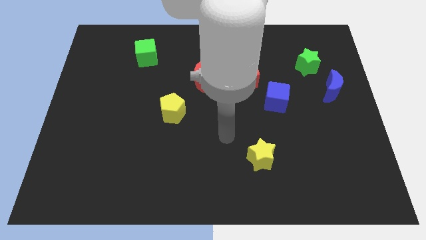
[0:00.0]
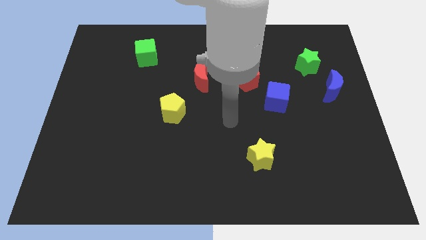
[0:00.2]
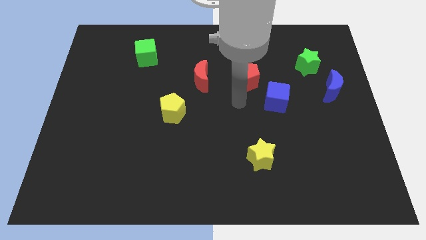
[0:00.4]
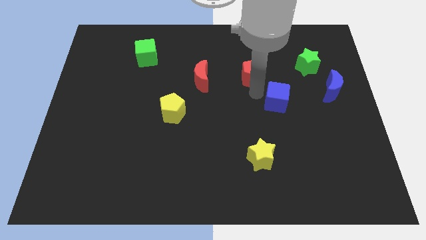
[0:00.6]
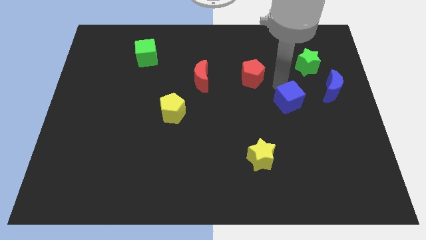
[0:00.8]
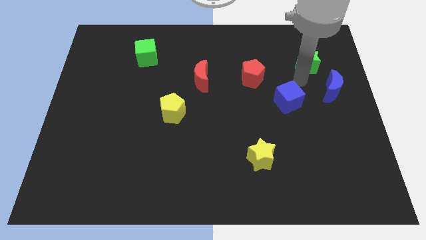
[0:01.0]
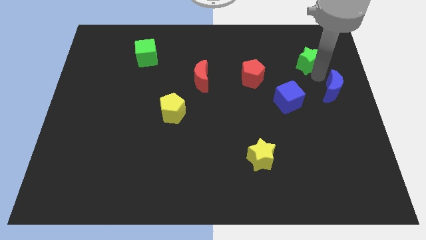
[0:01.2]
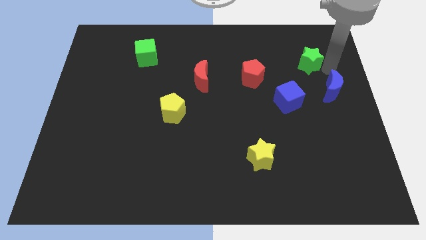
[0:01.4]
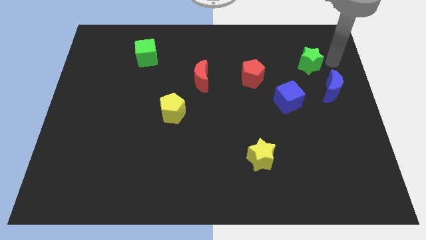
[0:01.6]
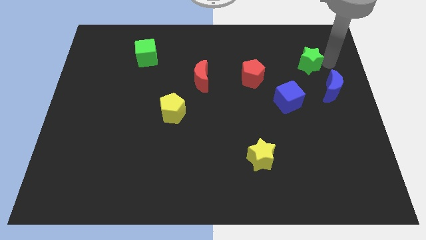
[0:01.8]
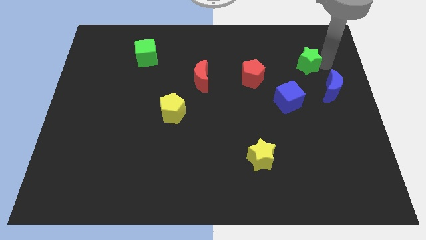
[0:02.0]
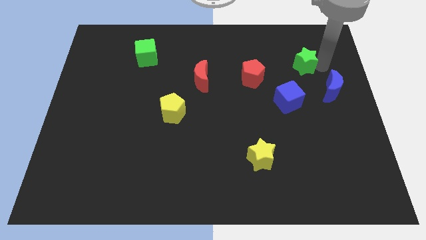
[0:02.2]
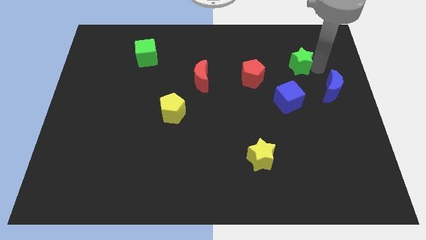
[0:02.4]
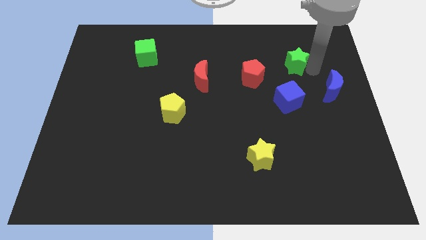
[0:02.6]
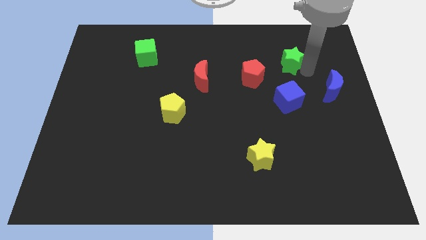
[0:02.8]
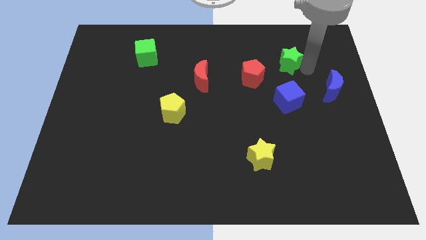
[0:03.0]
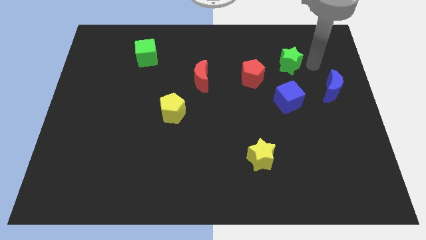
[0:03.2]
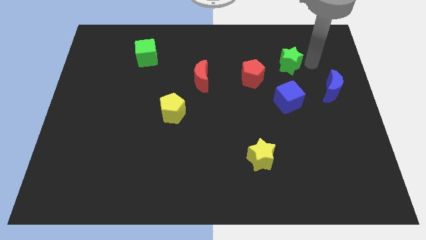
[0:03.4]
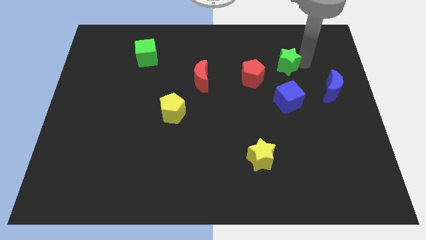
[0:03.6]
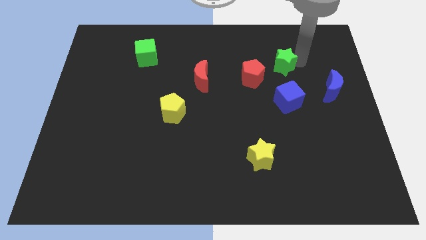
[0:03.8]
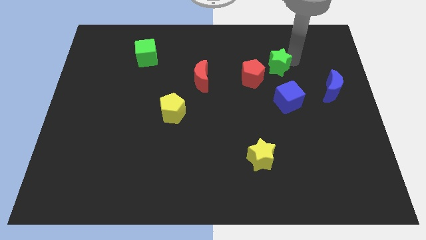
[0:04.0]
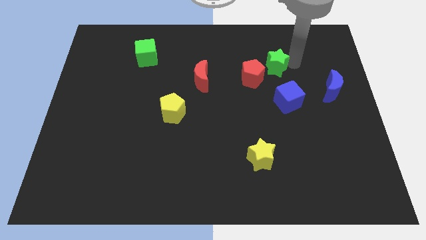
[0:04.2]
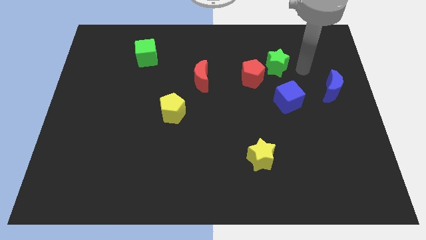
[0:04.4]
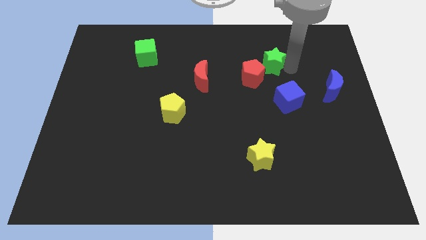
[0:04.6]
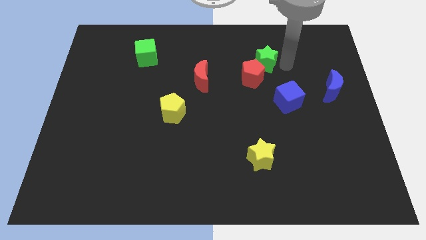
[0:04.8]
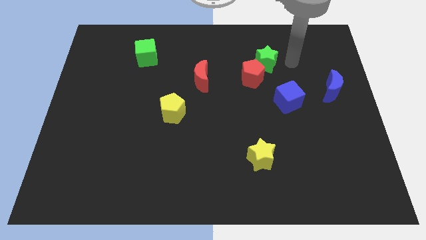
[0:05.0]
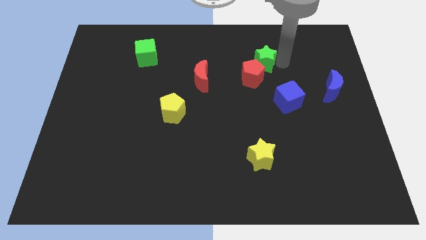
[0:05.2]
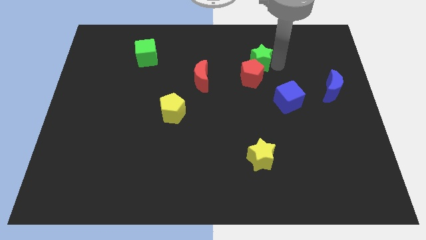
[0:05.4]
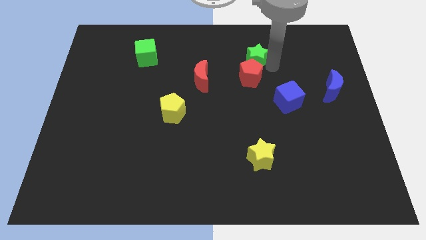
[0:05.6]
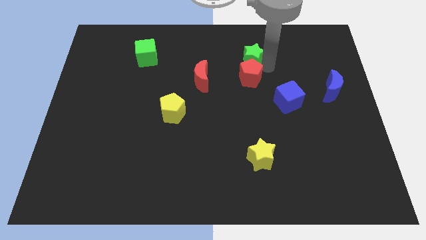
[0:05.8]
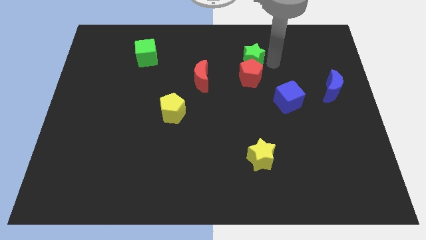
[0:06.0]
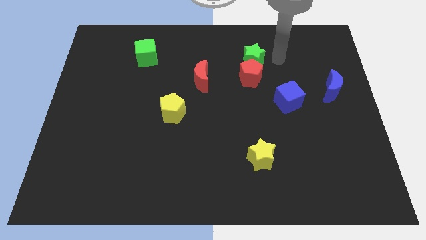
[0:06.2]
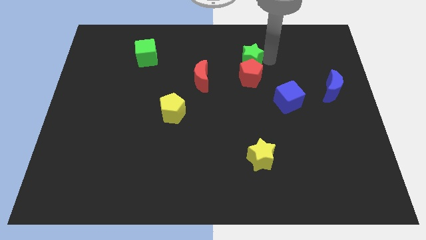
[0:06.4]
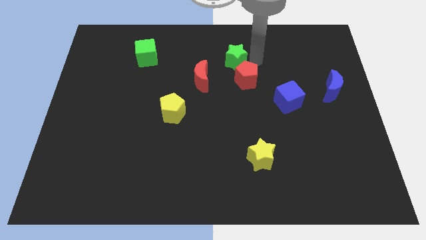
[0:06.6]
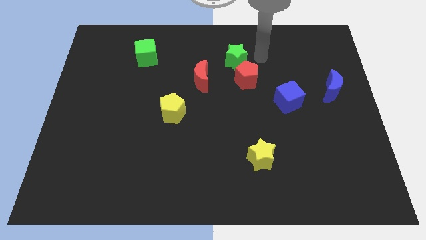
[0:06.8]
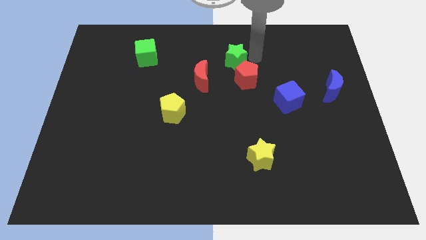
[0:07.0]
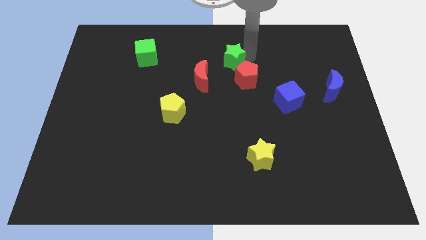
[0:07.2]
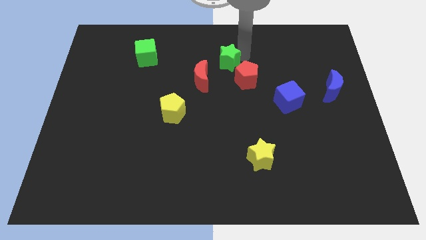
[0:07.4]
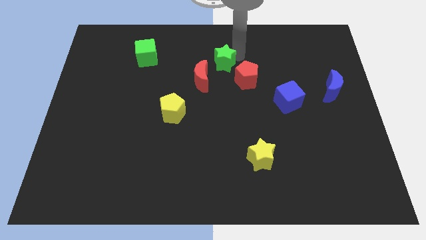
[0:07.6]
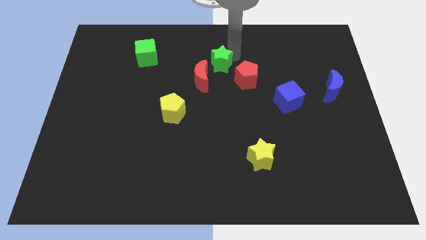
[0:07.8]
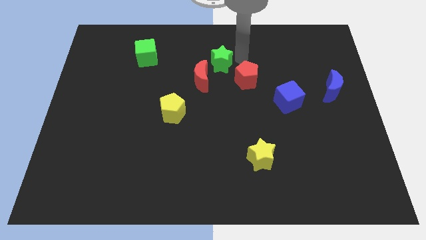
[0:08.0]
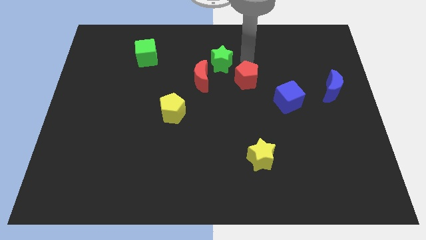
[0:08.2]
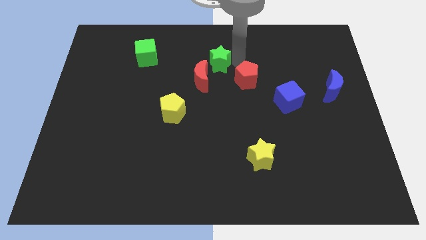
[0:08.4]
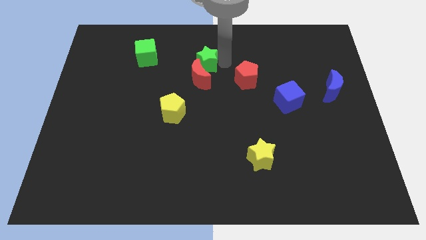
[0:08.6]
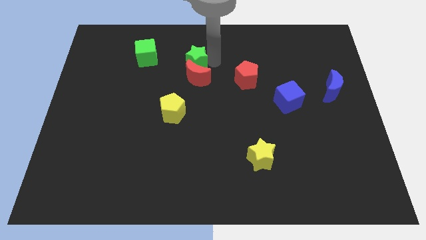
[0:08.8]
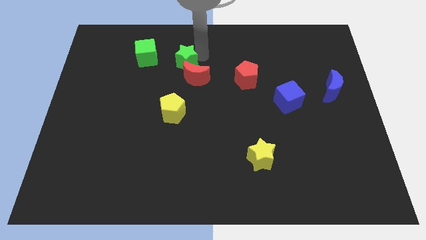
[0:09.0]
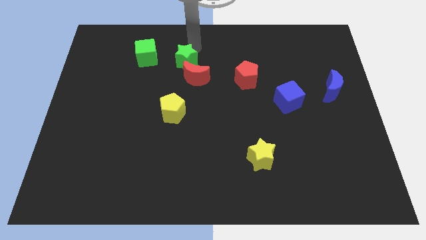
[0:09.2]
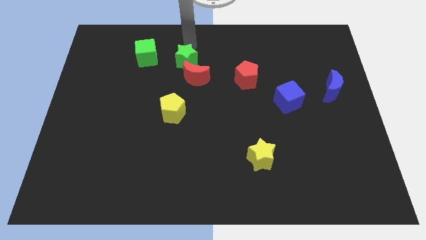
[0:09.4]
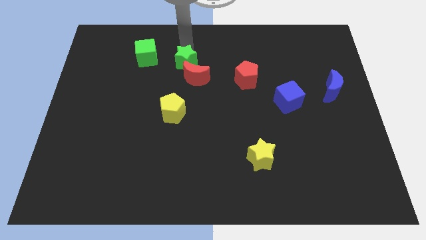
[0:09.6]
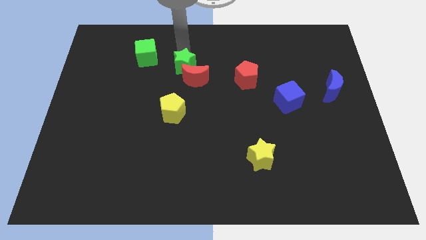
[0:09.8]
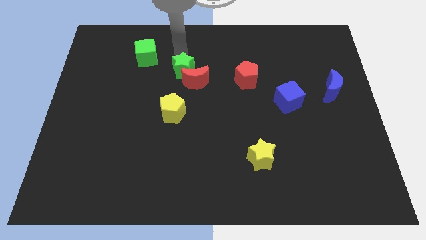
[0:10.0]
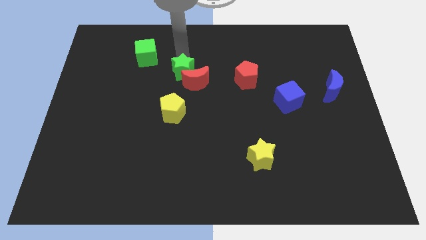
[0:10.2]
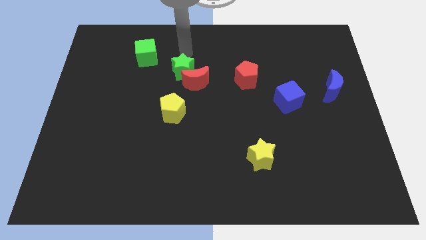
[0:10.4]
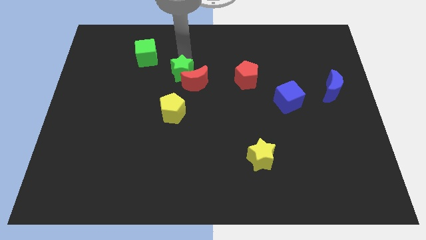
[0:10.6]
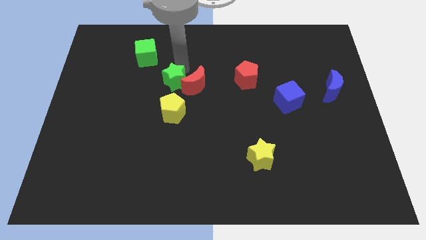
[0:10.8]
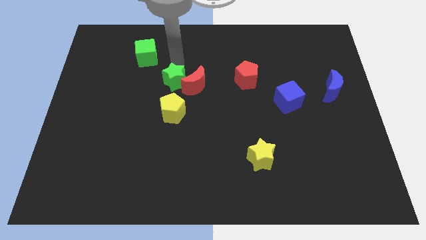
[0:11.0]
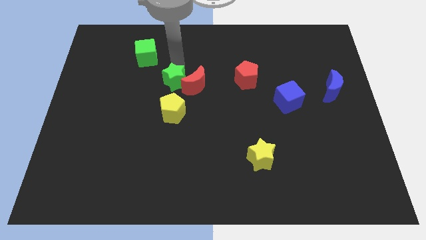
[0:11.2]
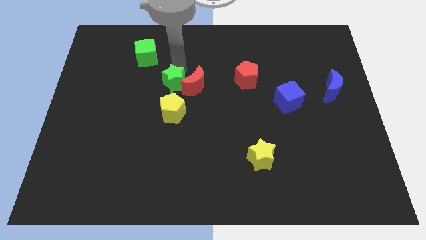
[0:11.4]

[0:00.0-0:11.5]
push the green star to the bottom left side of the red moon

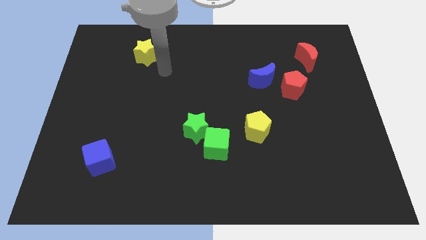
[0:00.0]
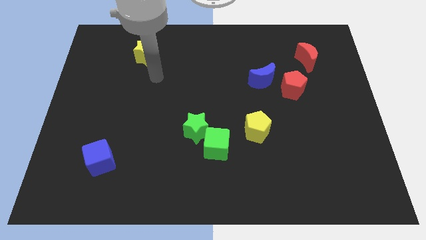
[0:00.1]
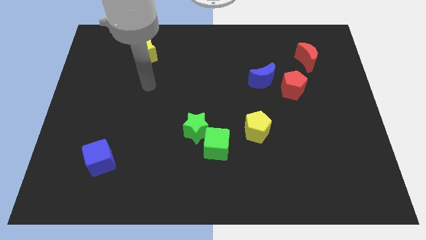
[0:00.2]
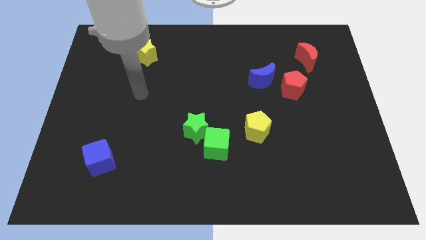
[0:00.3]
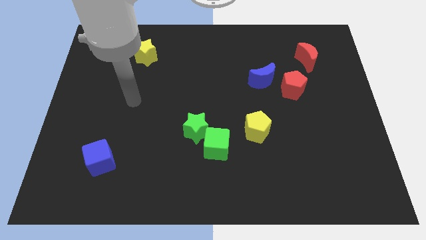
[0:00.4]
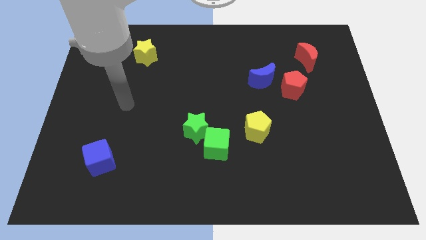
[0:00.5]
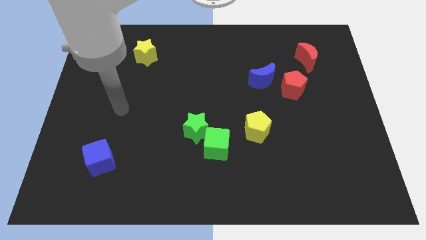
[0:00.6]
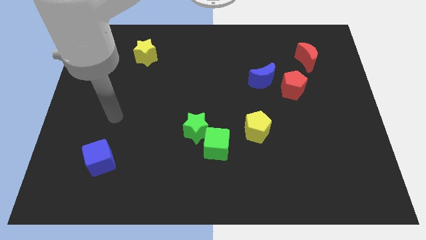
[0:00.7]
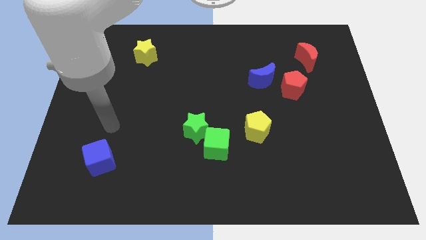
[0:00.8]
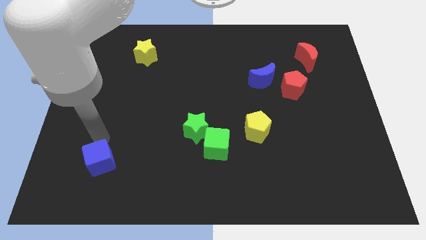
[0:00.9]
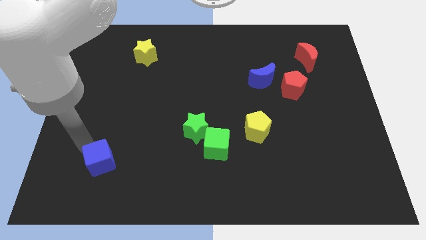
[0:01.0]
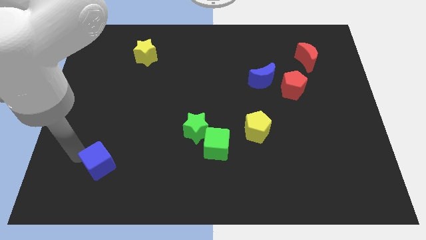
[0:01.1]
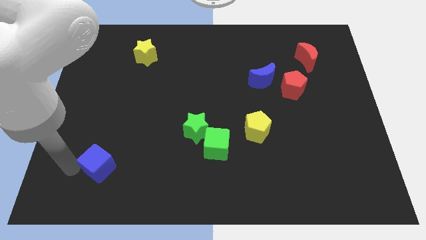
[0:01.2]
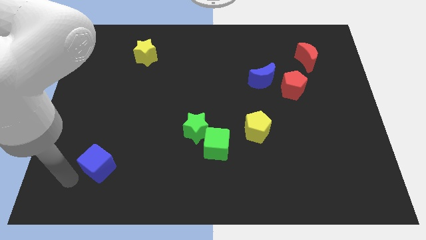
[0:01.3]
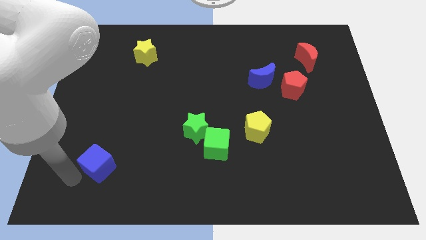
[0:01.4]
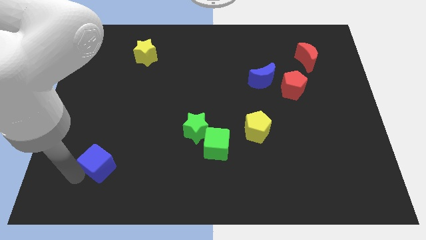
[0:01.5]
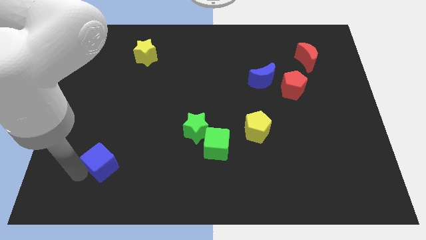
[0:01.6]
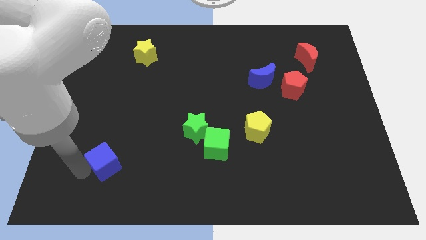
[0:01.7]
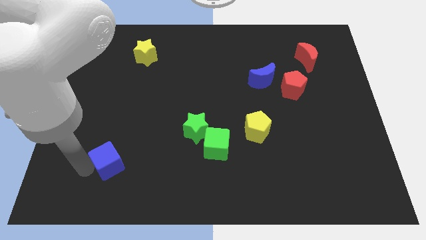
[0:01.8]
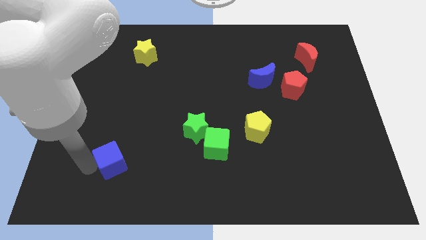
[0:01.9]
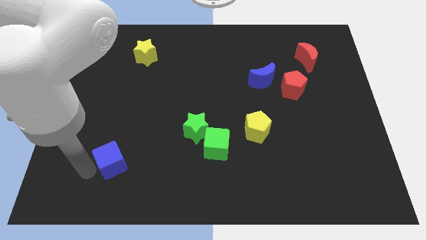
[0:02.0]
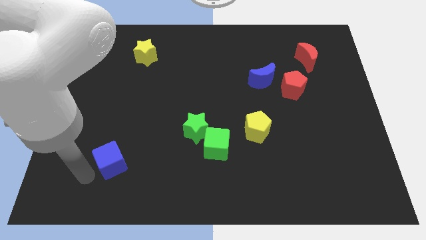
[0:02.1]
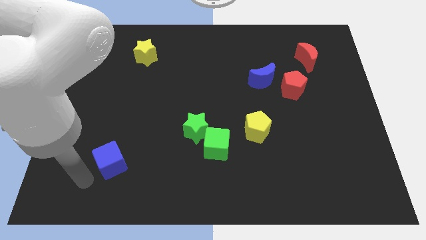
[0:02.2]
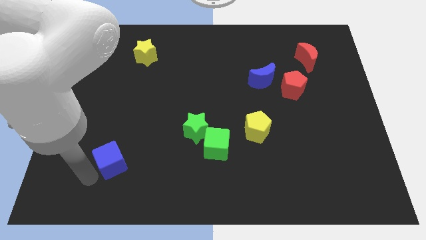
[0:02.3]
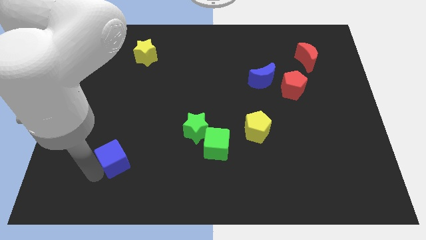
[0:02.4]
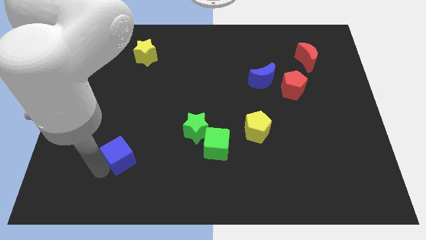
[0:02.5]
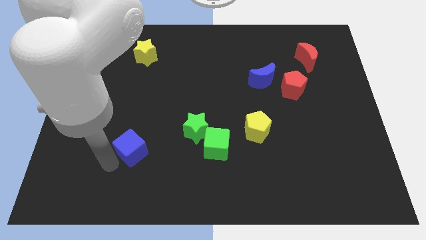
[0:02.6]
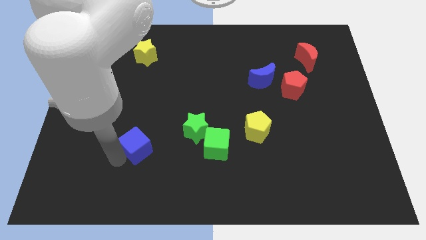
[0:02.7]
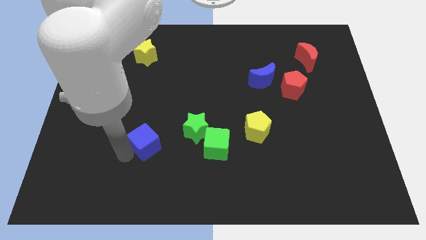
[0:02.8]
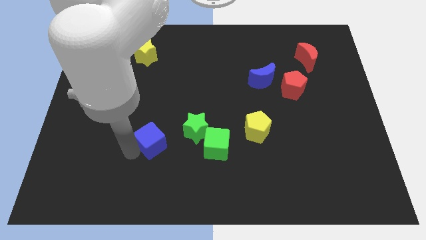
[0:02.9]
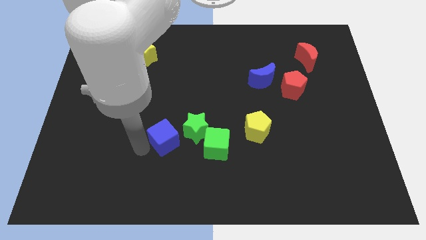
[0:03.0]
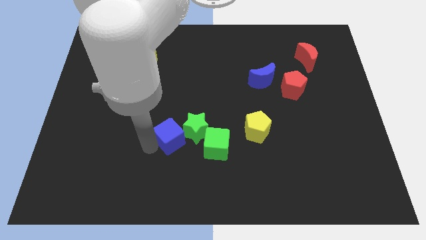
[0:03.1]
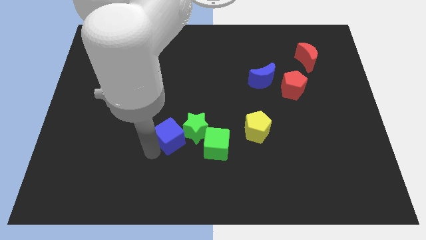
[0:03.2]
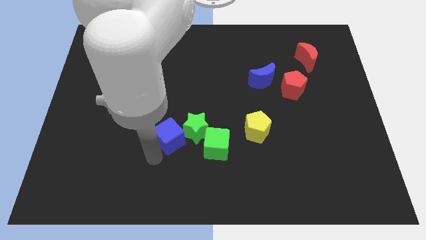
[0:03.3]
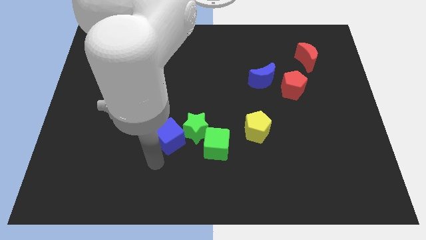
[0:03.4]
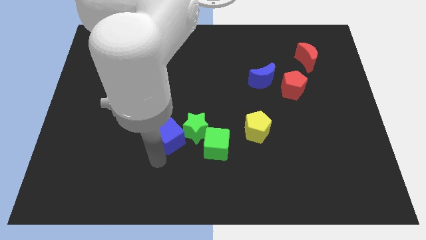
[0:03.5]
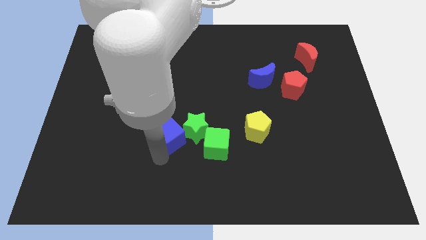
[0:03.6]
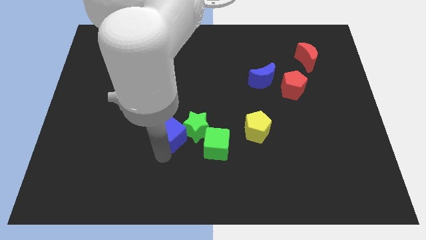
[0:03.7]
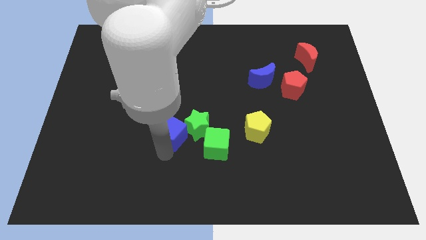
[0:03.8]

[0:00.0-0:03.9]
put the blue cube diagonally up and to the left of the green cube
